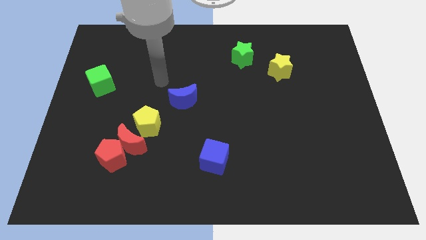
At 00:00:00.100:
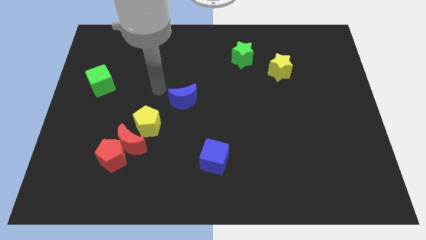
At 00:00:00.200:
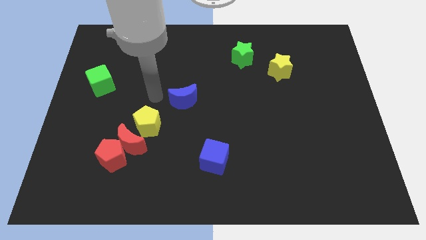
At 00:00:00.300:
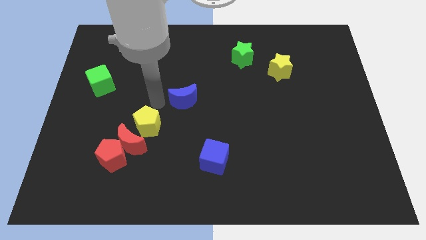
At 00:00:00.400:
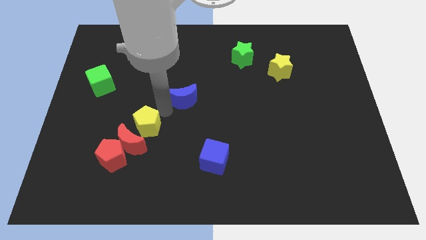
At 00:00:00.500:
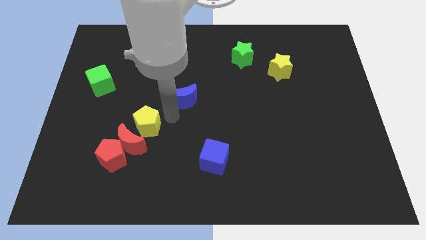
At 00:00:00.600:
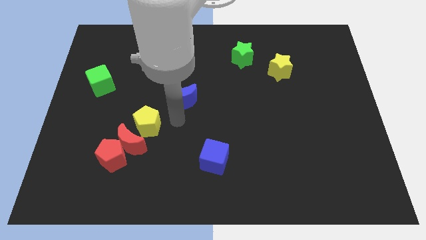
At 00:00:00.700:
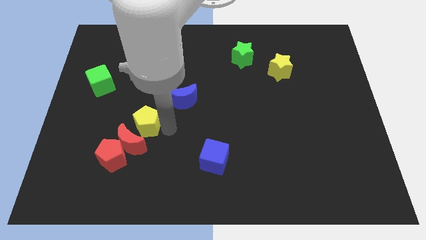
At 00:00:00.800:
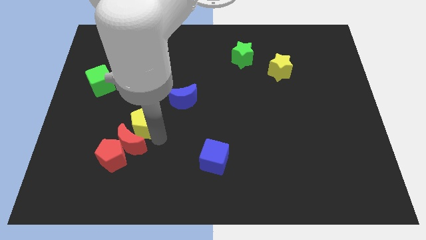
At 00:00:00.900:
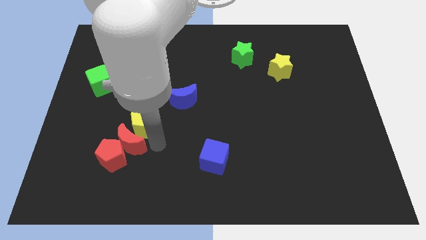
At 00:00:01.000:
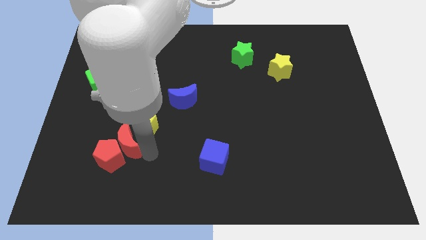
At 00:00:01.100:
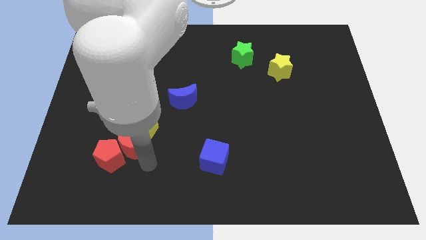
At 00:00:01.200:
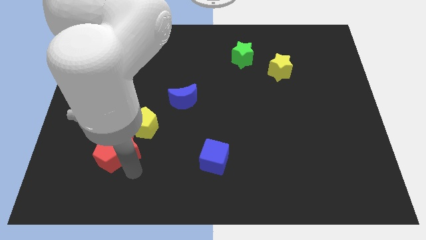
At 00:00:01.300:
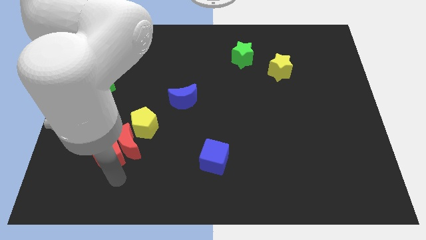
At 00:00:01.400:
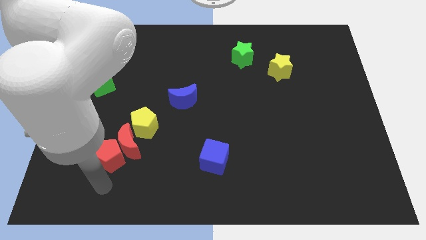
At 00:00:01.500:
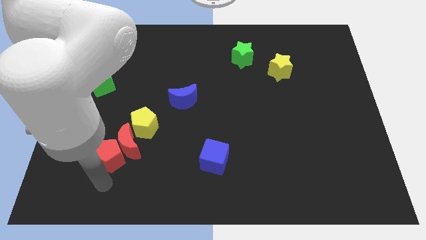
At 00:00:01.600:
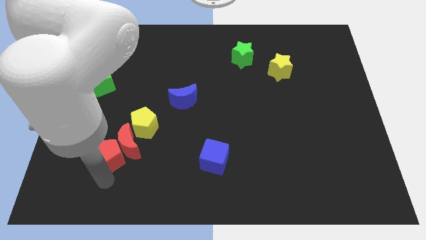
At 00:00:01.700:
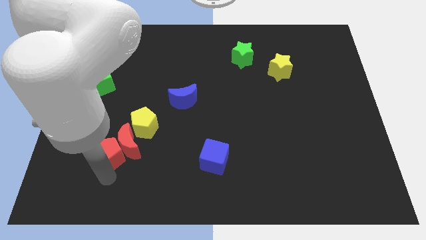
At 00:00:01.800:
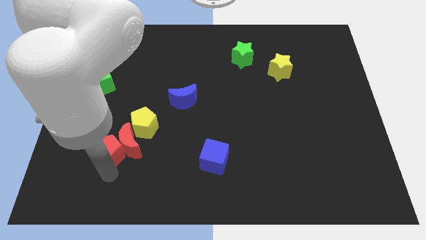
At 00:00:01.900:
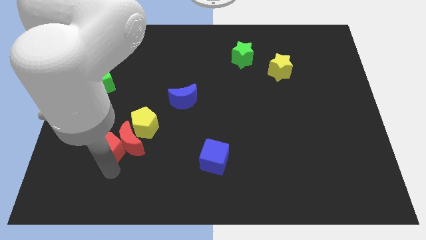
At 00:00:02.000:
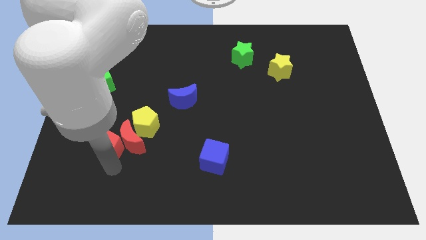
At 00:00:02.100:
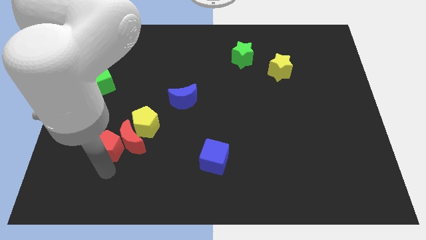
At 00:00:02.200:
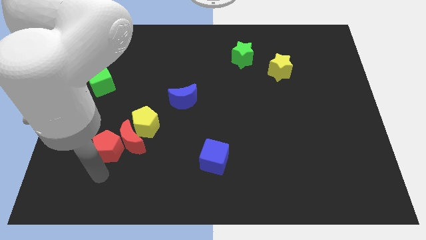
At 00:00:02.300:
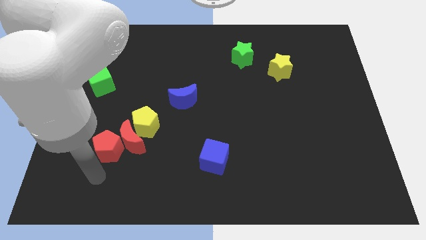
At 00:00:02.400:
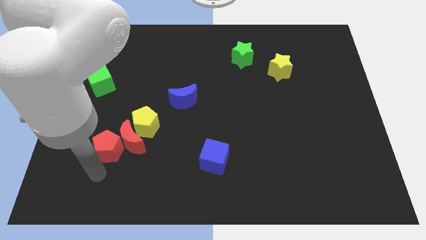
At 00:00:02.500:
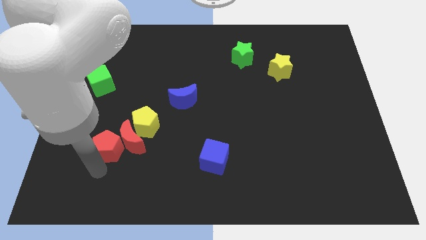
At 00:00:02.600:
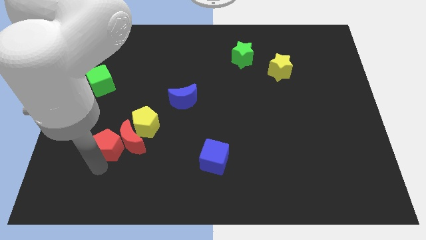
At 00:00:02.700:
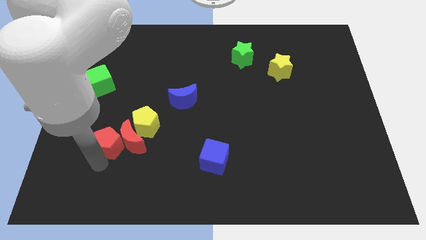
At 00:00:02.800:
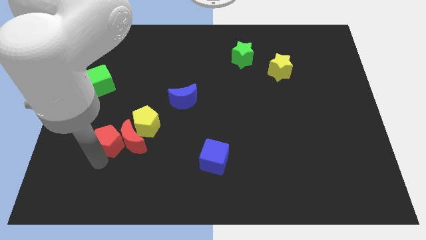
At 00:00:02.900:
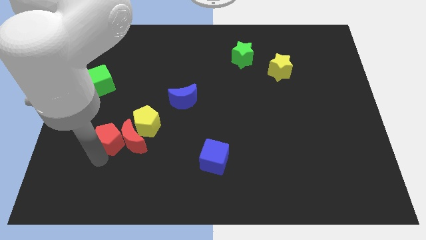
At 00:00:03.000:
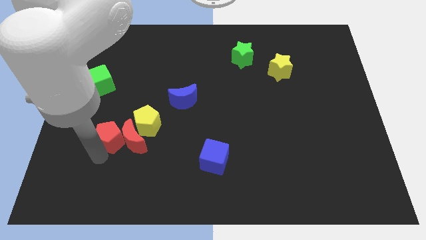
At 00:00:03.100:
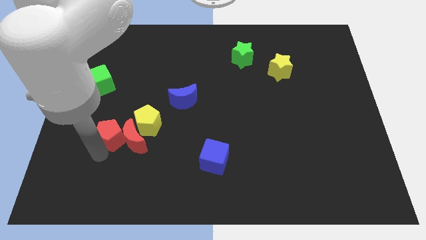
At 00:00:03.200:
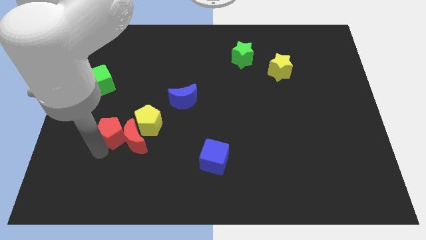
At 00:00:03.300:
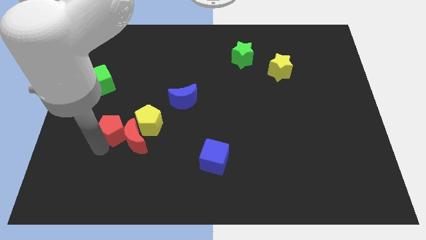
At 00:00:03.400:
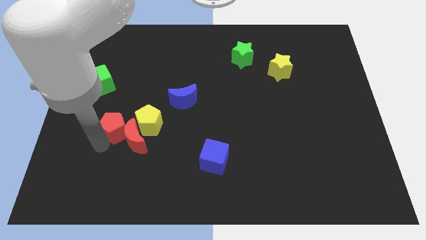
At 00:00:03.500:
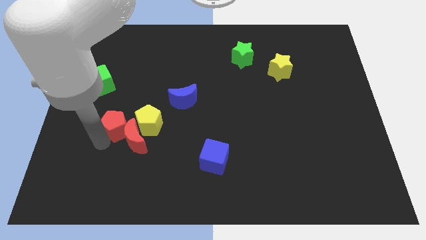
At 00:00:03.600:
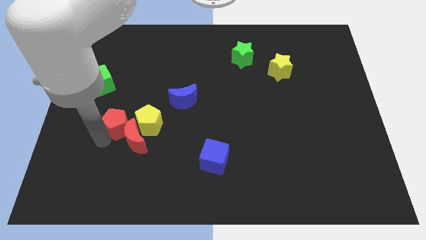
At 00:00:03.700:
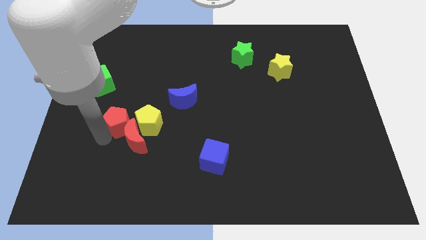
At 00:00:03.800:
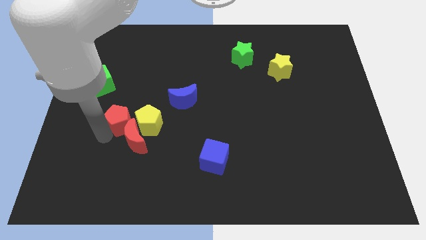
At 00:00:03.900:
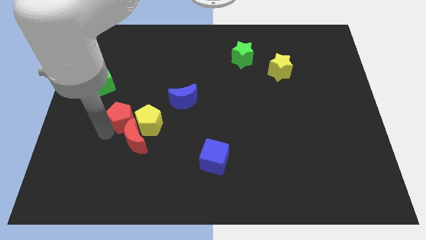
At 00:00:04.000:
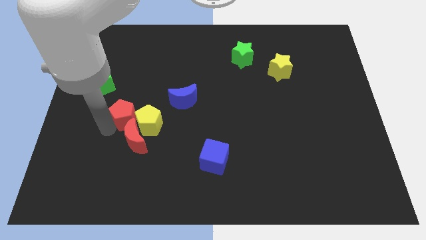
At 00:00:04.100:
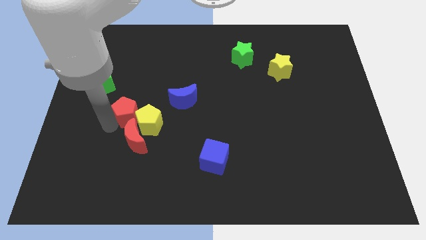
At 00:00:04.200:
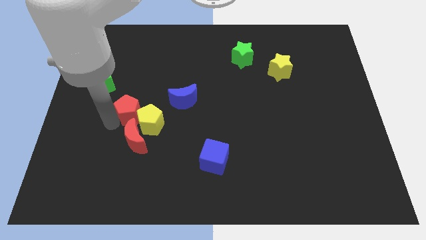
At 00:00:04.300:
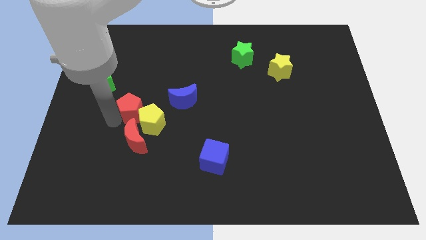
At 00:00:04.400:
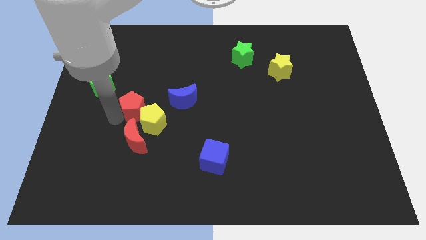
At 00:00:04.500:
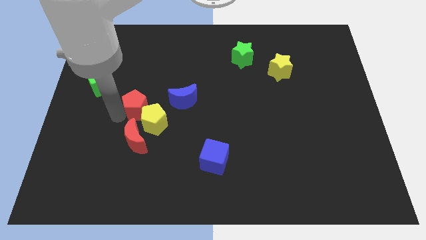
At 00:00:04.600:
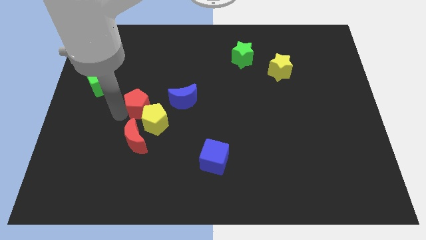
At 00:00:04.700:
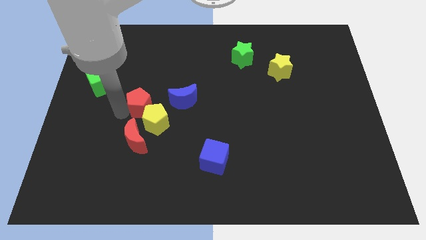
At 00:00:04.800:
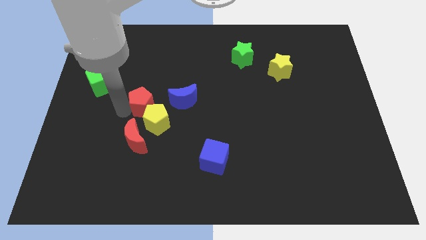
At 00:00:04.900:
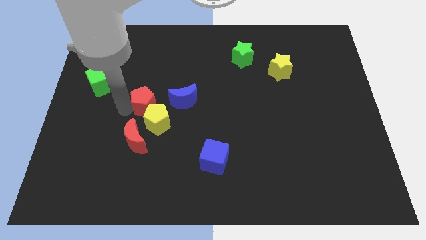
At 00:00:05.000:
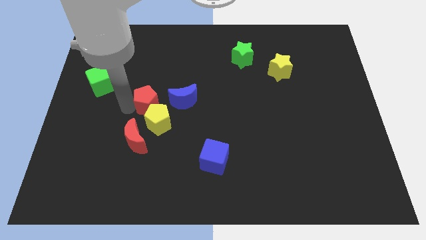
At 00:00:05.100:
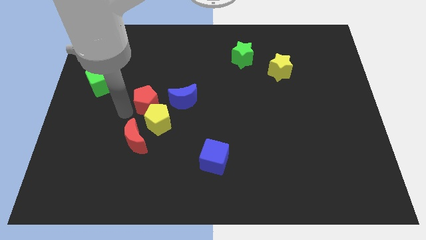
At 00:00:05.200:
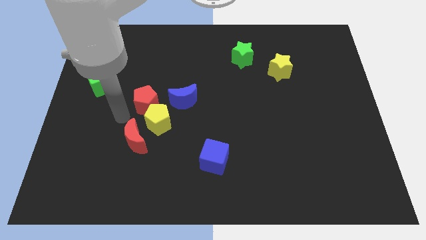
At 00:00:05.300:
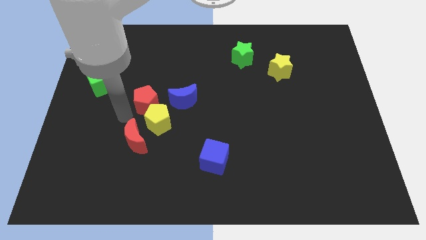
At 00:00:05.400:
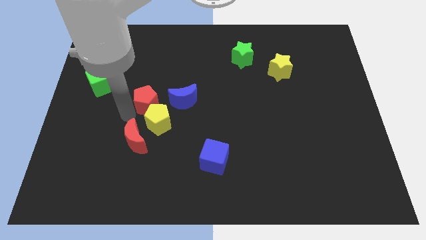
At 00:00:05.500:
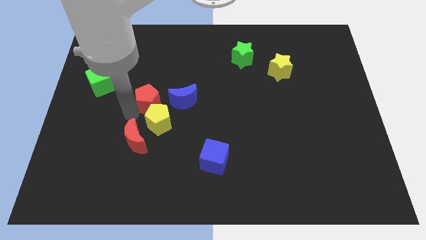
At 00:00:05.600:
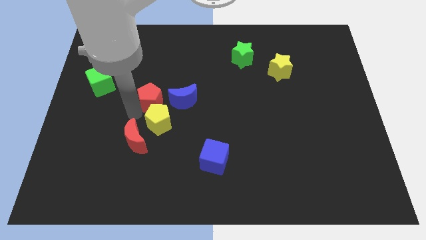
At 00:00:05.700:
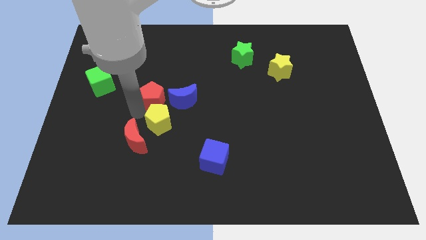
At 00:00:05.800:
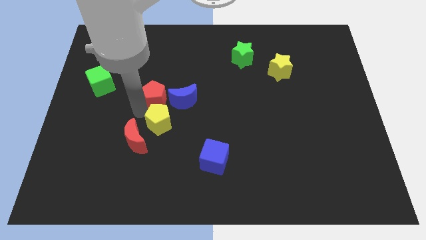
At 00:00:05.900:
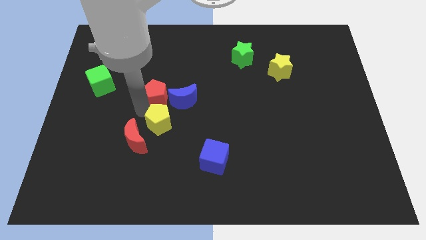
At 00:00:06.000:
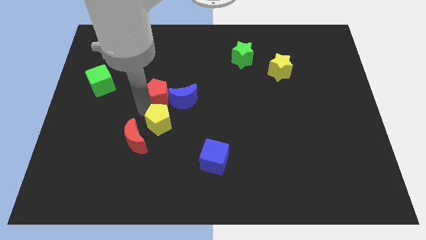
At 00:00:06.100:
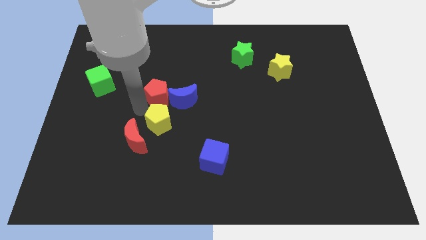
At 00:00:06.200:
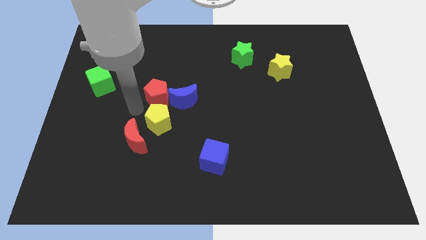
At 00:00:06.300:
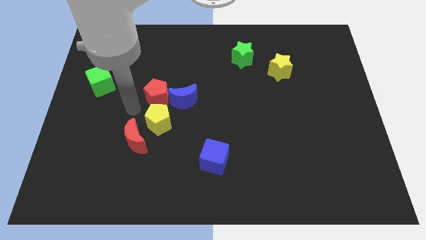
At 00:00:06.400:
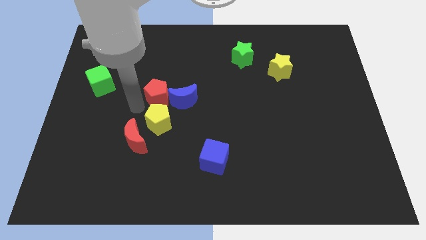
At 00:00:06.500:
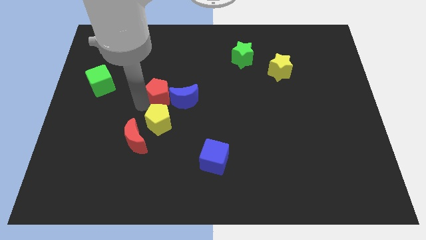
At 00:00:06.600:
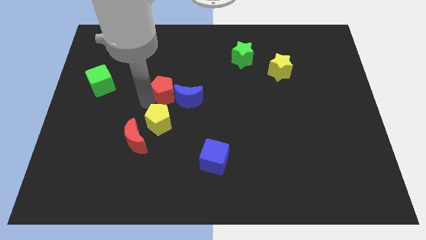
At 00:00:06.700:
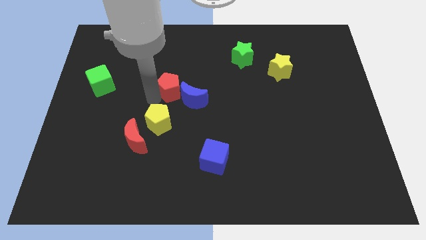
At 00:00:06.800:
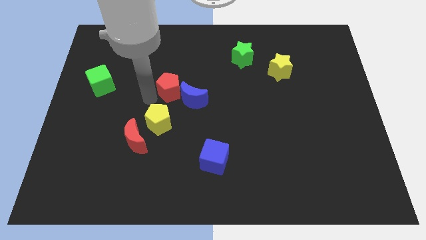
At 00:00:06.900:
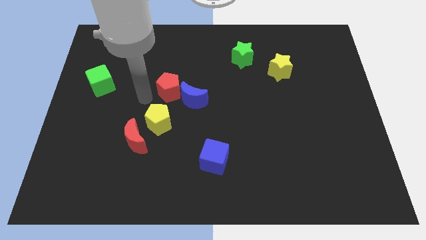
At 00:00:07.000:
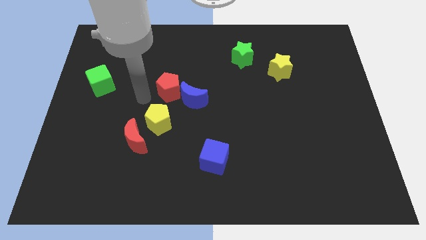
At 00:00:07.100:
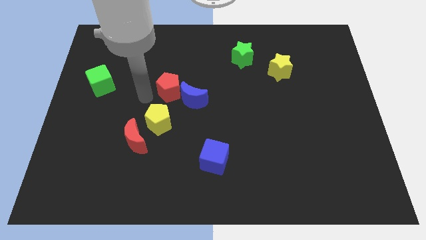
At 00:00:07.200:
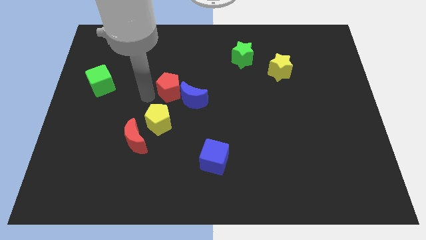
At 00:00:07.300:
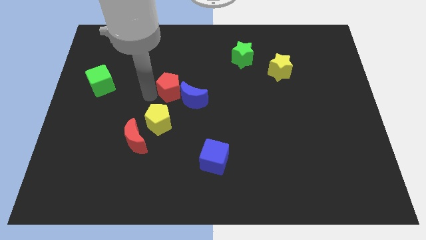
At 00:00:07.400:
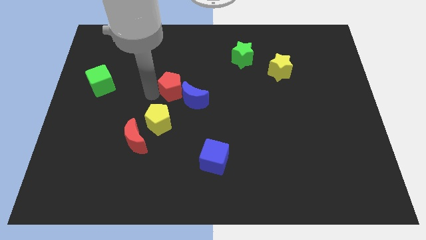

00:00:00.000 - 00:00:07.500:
slide the red pentagon up and right diagonally
